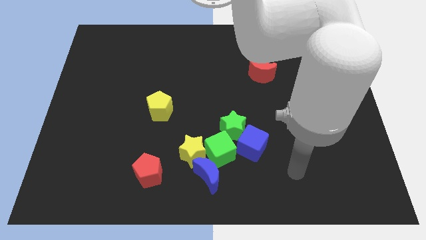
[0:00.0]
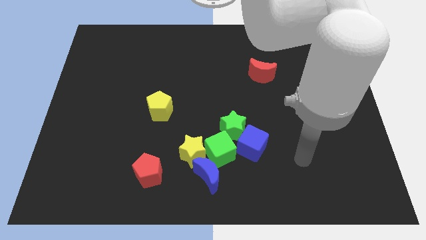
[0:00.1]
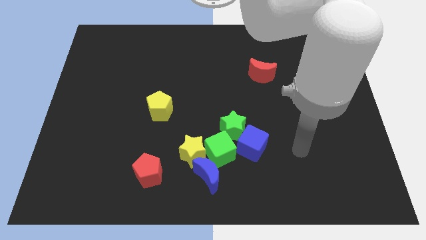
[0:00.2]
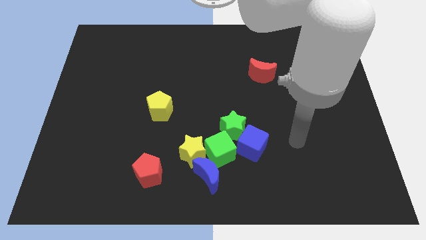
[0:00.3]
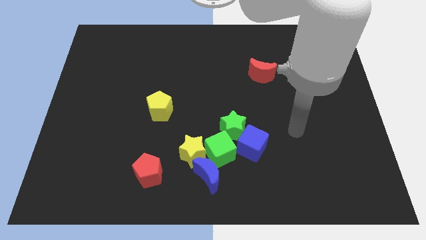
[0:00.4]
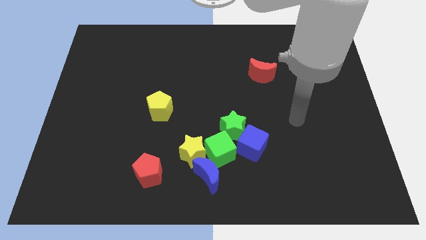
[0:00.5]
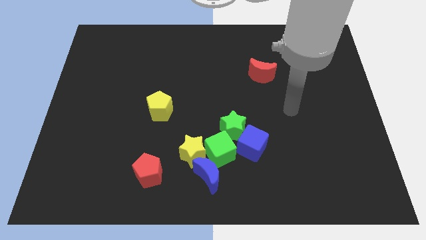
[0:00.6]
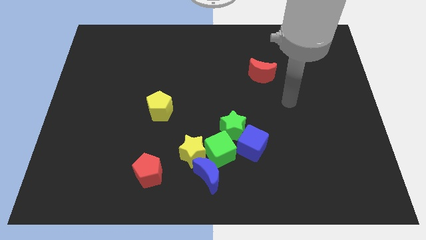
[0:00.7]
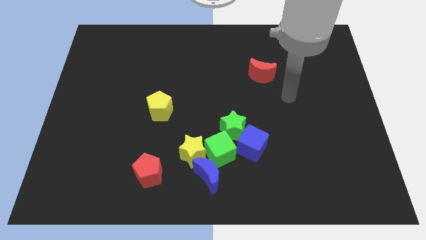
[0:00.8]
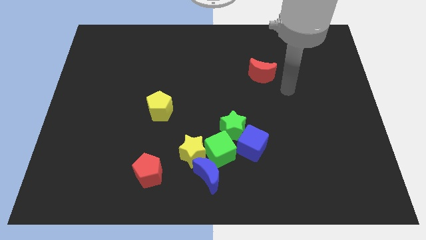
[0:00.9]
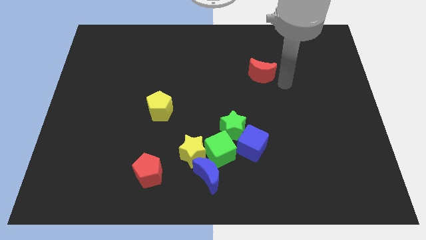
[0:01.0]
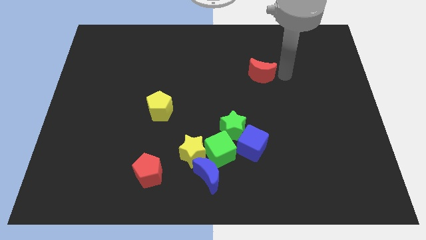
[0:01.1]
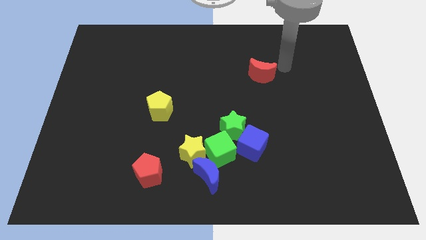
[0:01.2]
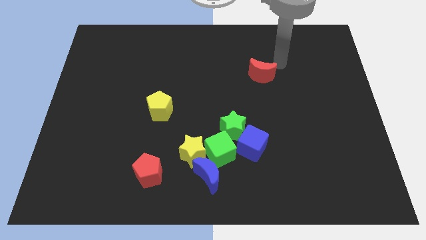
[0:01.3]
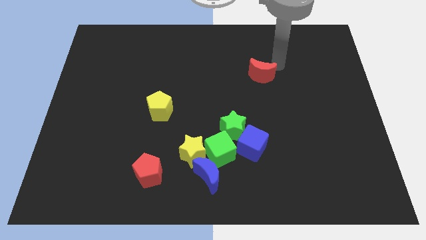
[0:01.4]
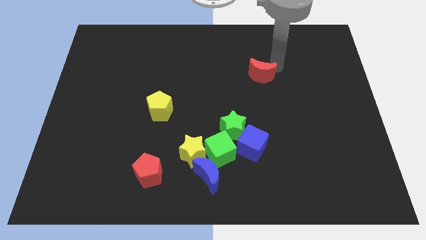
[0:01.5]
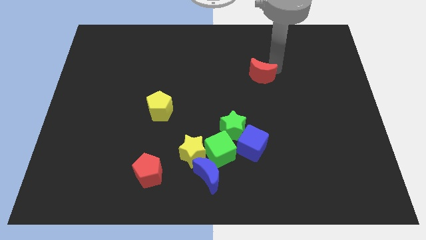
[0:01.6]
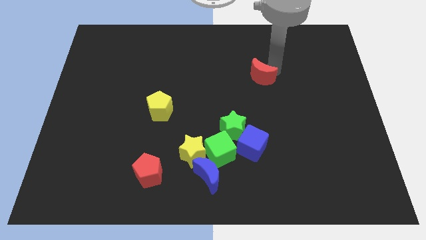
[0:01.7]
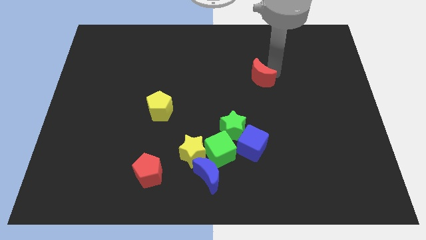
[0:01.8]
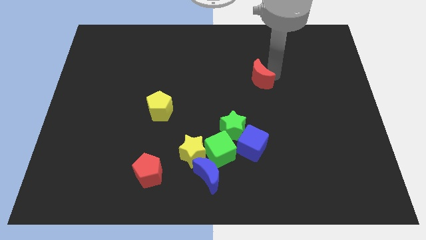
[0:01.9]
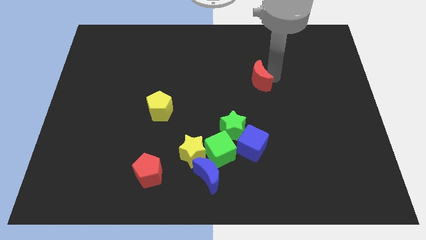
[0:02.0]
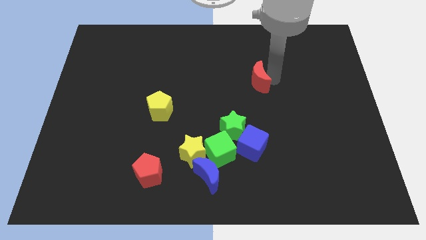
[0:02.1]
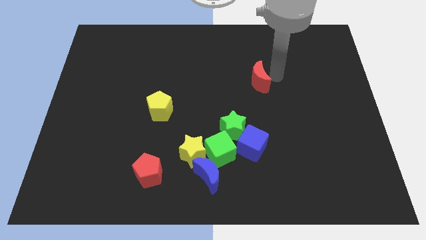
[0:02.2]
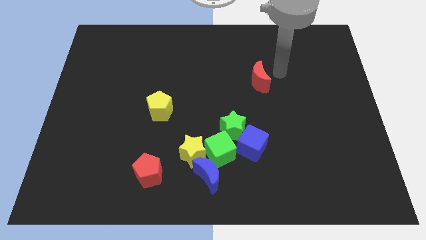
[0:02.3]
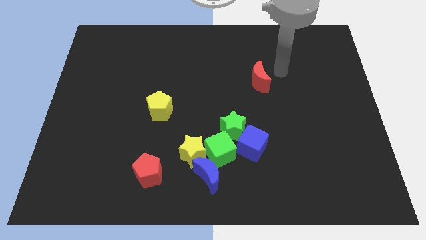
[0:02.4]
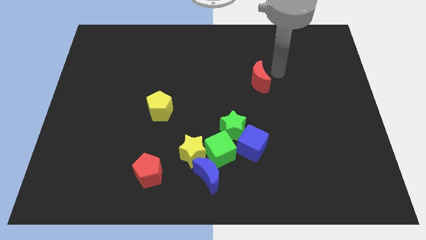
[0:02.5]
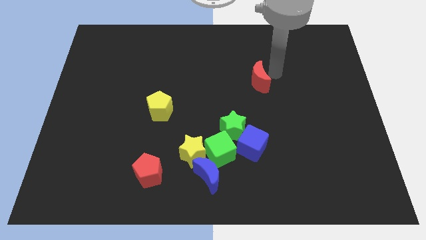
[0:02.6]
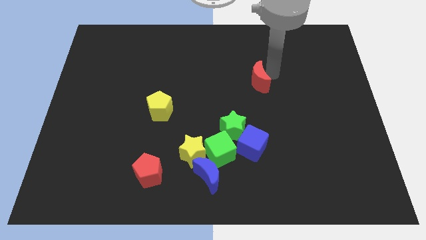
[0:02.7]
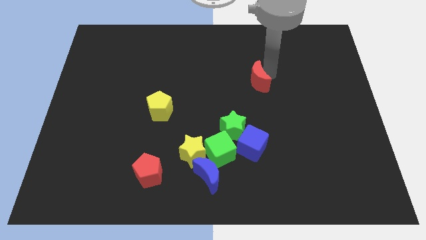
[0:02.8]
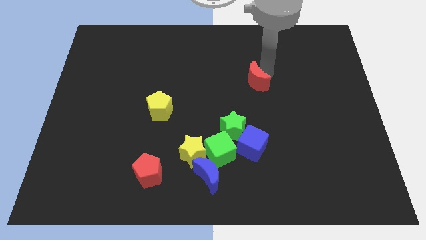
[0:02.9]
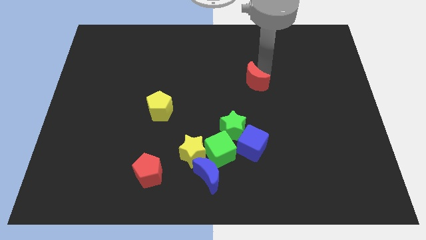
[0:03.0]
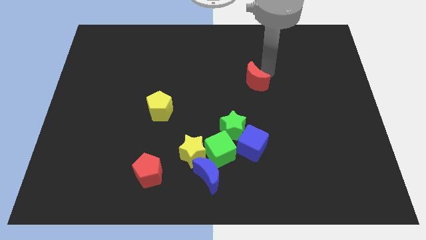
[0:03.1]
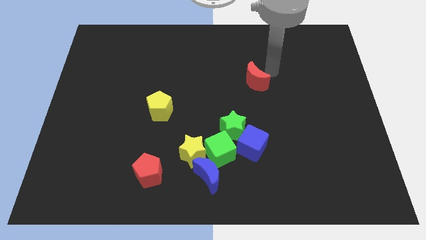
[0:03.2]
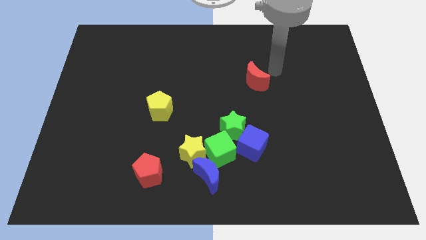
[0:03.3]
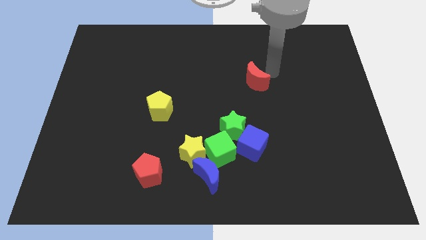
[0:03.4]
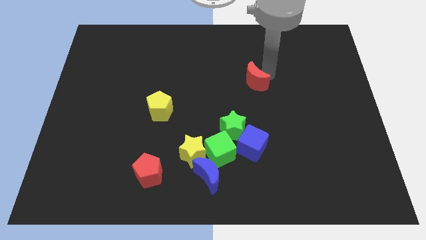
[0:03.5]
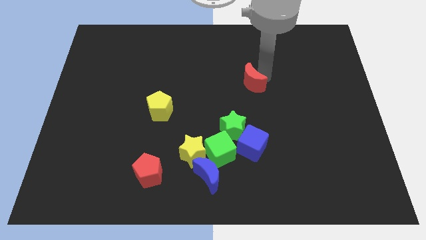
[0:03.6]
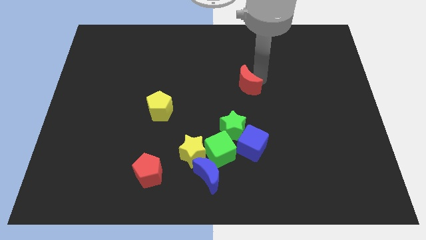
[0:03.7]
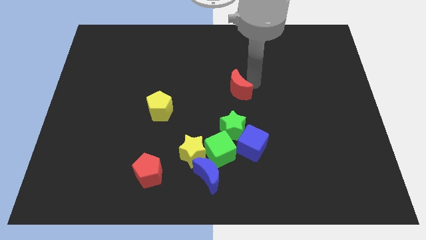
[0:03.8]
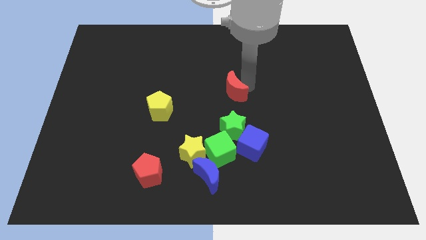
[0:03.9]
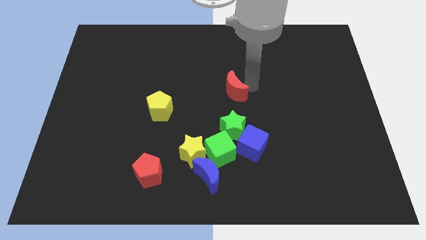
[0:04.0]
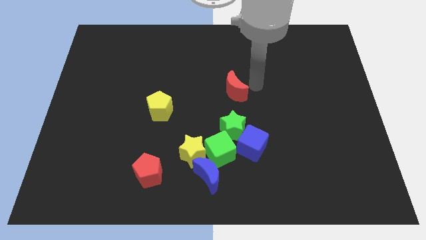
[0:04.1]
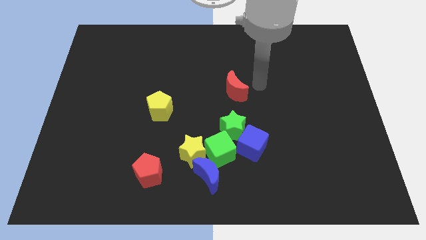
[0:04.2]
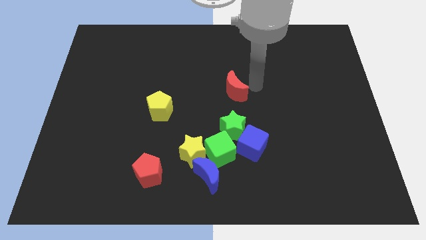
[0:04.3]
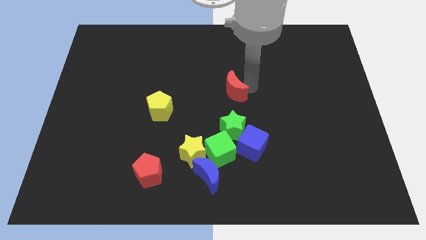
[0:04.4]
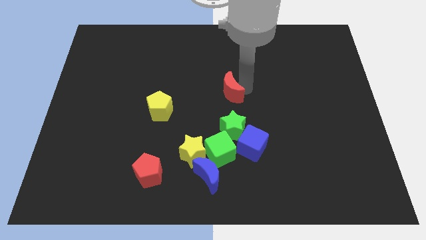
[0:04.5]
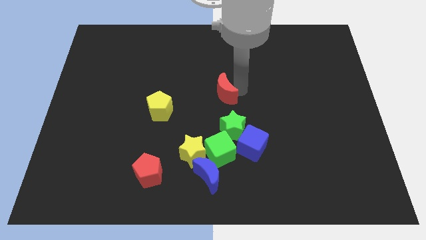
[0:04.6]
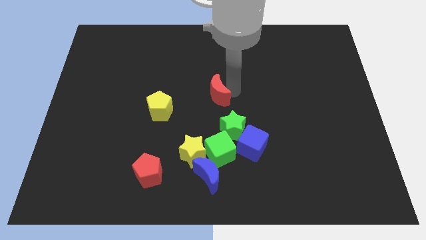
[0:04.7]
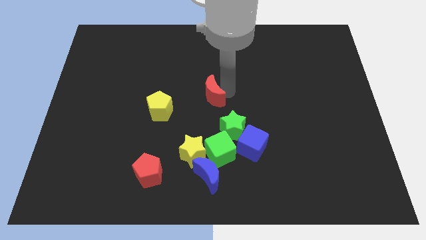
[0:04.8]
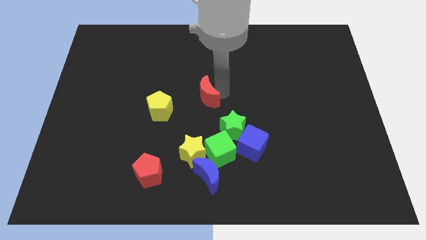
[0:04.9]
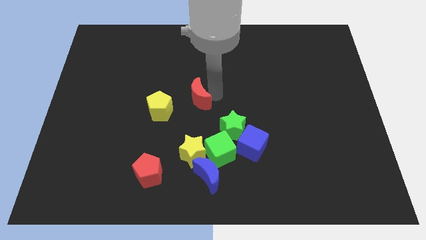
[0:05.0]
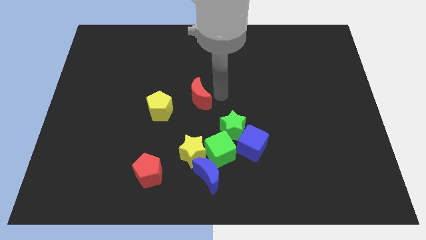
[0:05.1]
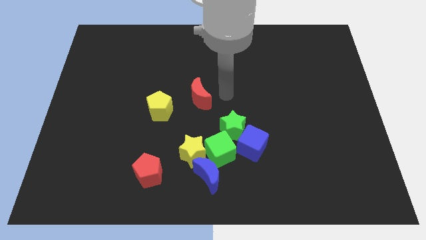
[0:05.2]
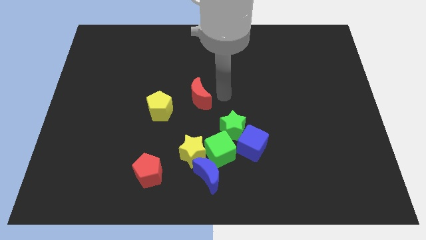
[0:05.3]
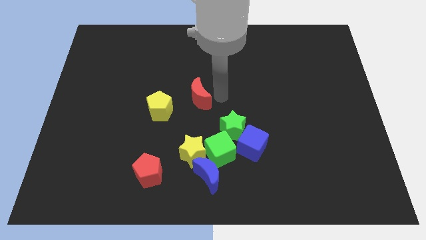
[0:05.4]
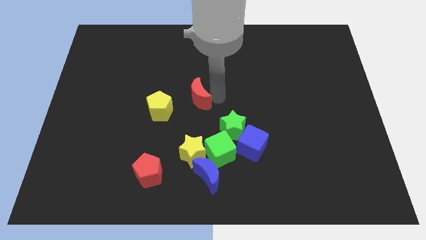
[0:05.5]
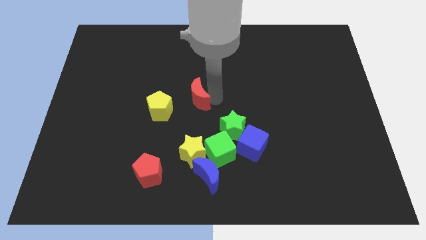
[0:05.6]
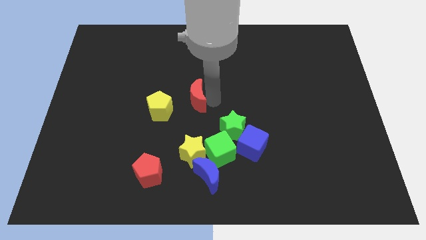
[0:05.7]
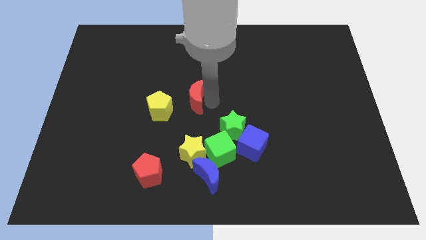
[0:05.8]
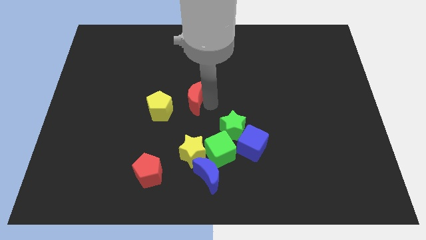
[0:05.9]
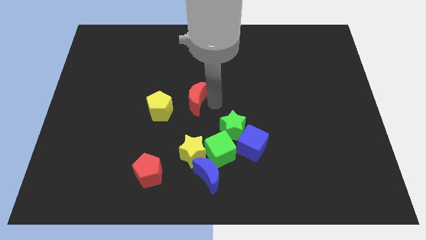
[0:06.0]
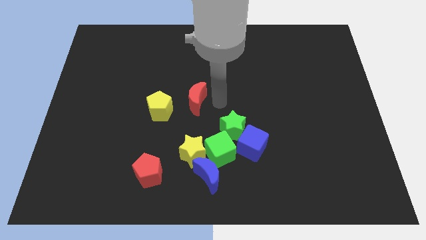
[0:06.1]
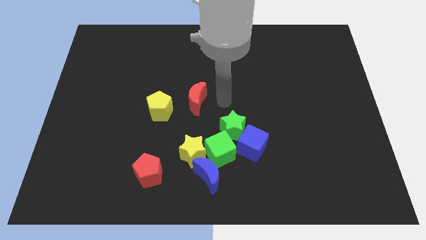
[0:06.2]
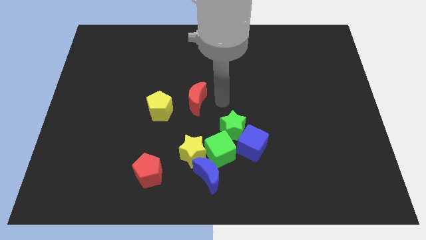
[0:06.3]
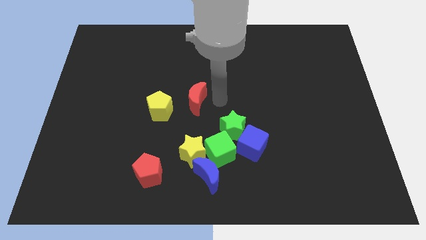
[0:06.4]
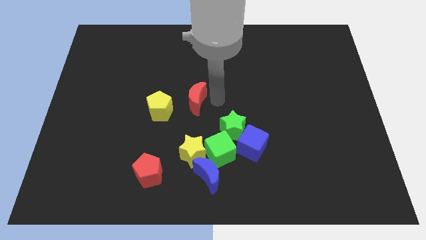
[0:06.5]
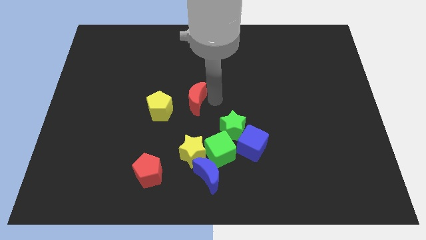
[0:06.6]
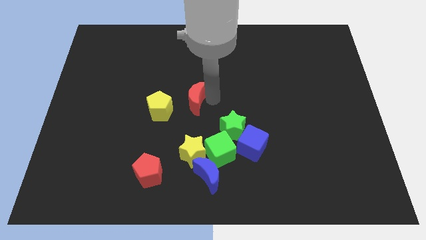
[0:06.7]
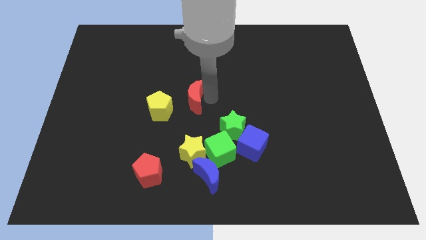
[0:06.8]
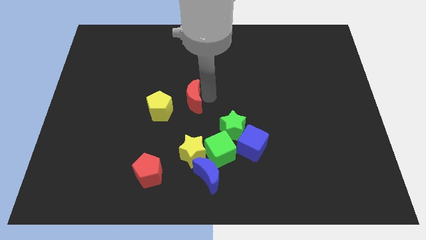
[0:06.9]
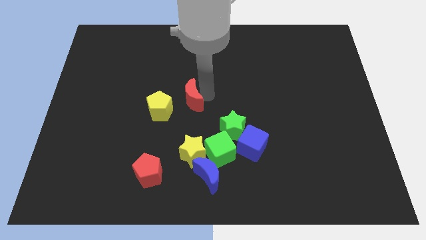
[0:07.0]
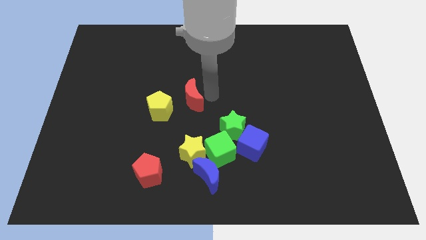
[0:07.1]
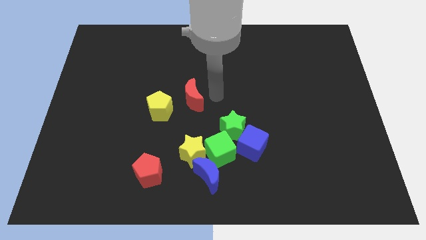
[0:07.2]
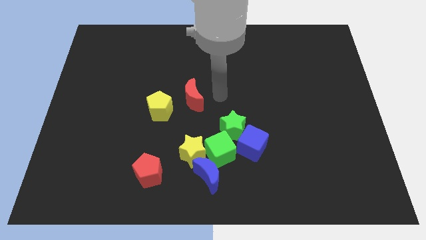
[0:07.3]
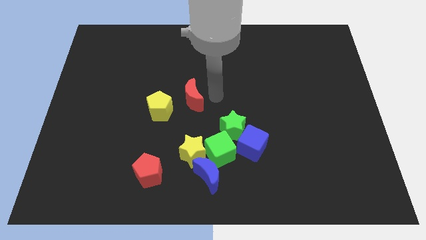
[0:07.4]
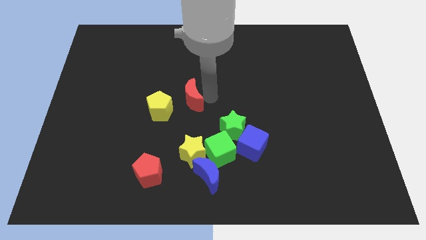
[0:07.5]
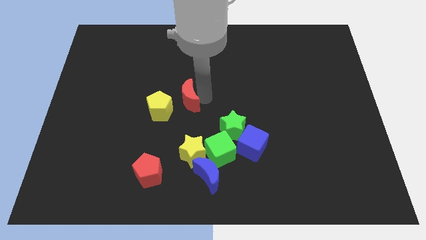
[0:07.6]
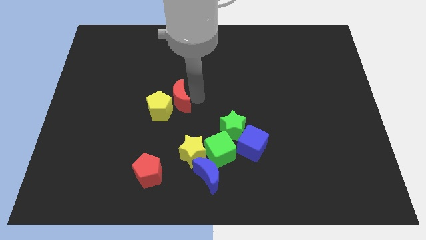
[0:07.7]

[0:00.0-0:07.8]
slide the red moon next to the yellow pentagon
